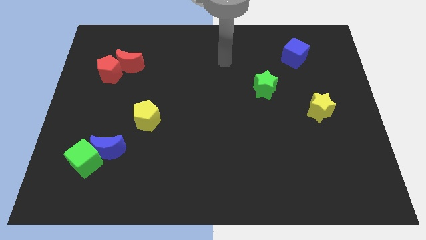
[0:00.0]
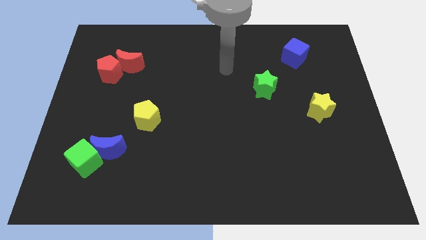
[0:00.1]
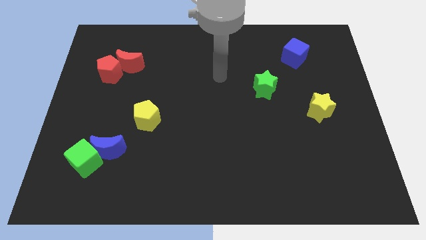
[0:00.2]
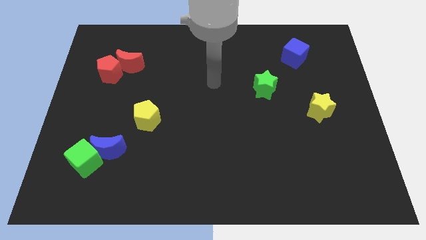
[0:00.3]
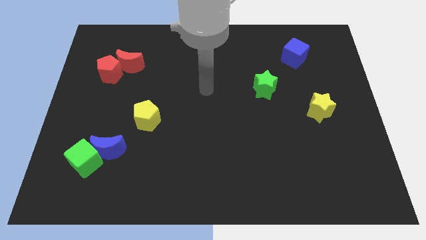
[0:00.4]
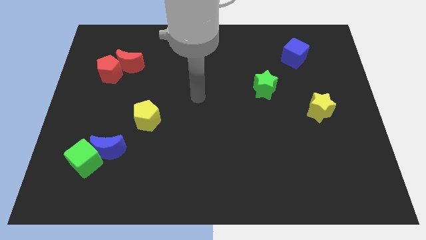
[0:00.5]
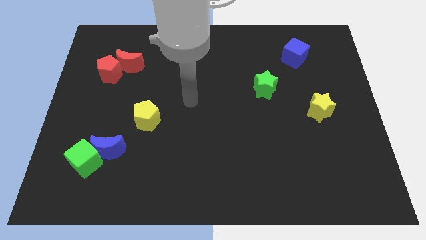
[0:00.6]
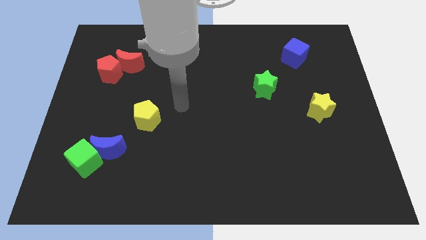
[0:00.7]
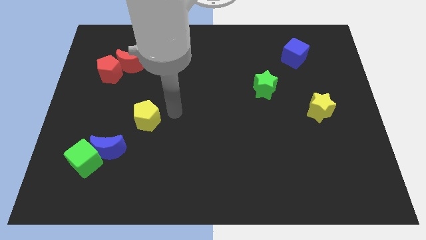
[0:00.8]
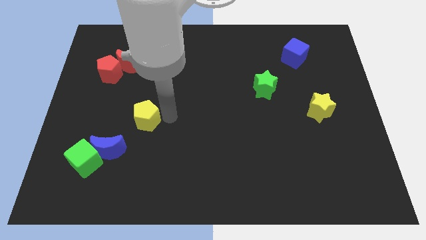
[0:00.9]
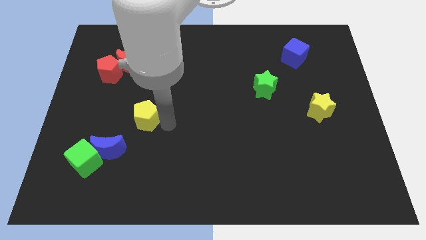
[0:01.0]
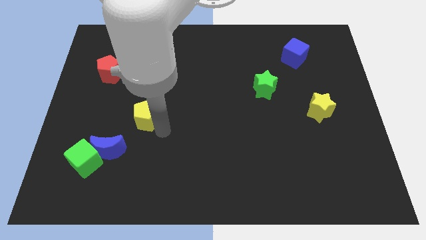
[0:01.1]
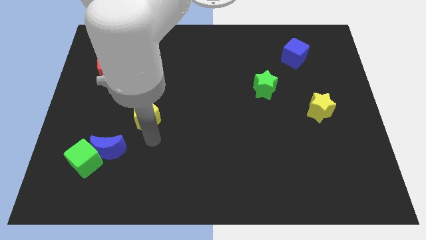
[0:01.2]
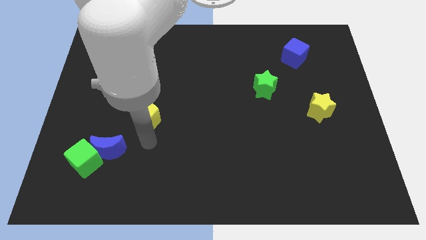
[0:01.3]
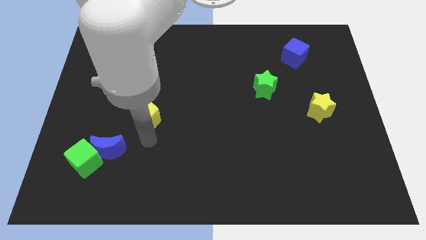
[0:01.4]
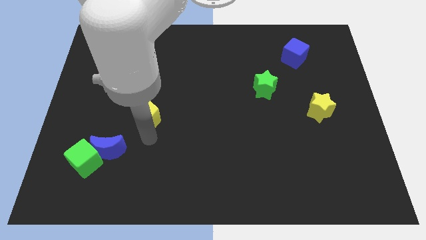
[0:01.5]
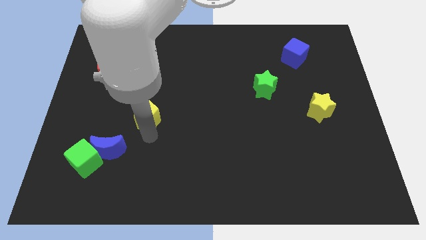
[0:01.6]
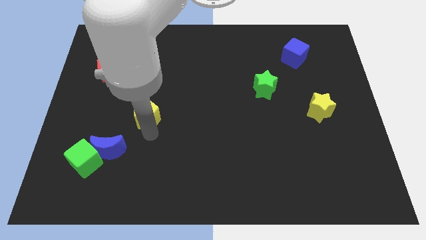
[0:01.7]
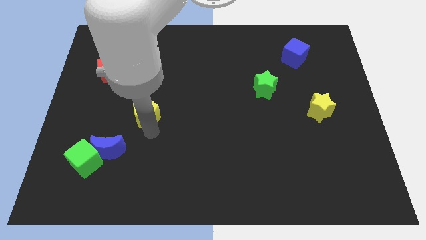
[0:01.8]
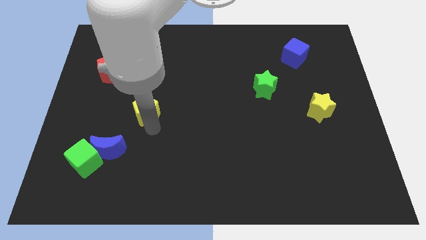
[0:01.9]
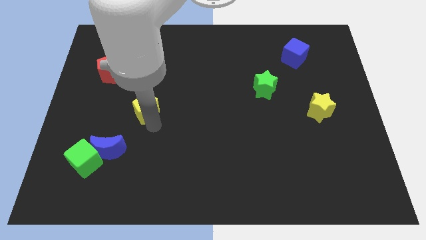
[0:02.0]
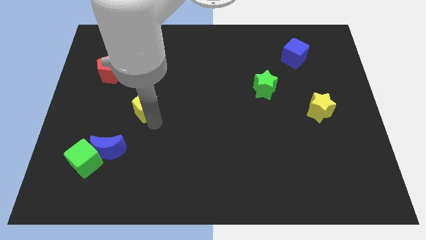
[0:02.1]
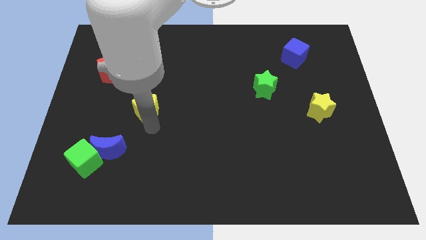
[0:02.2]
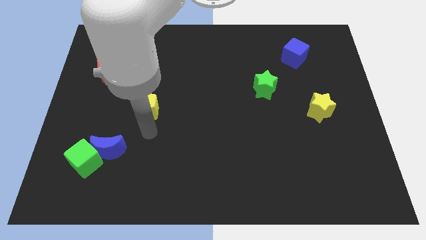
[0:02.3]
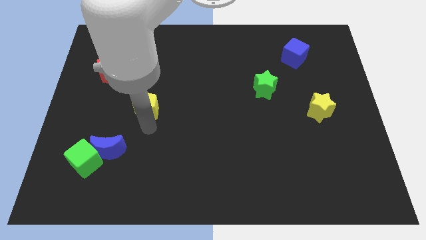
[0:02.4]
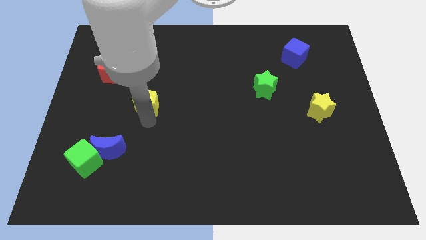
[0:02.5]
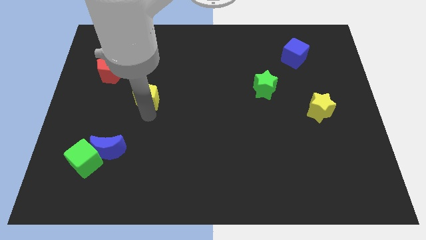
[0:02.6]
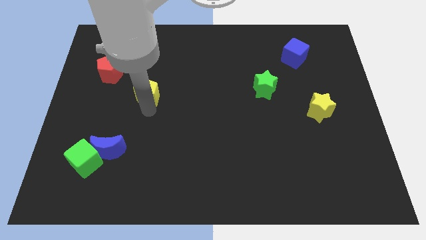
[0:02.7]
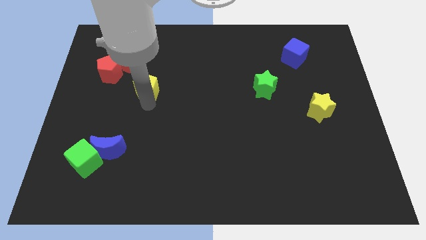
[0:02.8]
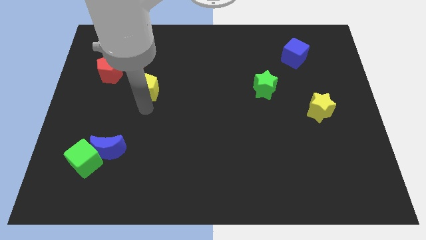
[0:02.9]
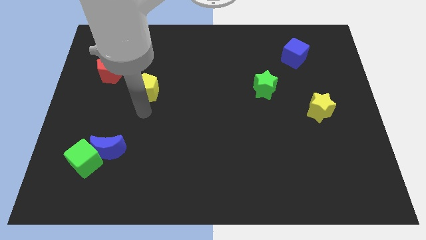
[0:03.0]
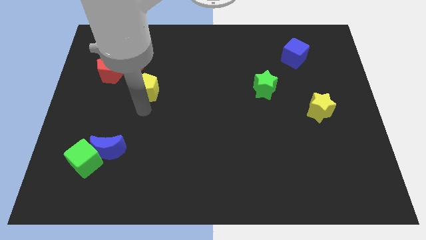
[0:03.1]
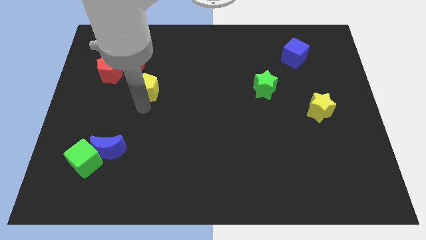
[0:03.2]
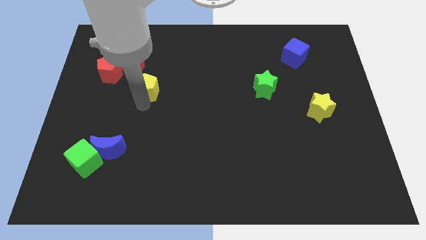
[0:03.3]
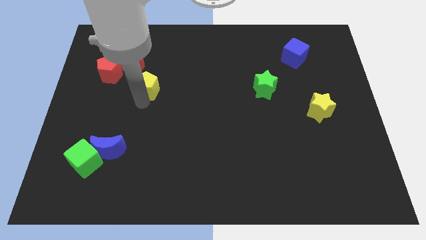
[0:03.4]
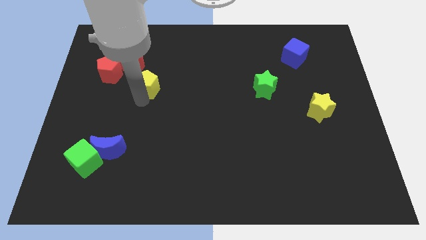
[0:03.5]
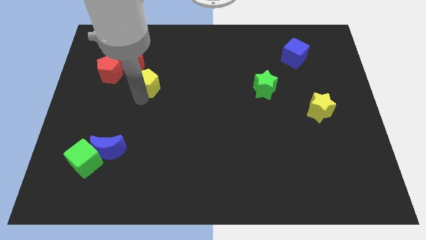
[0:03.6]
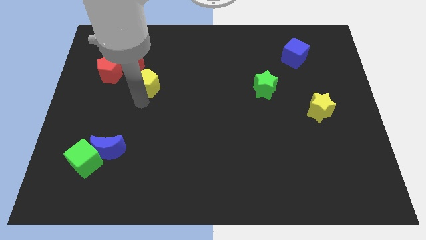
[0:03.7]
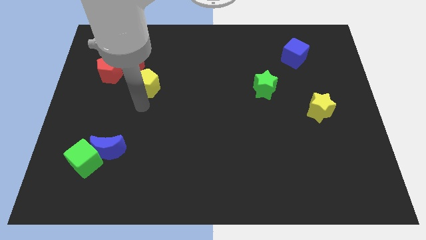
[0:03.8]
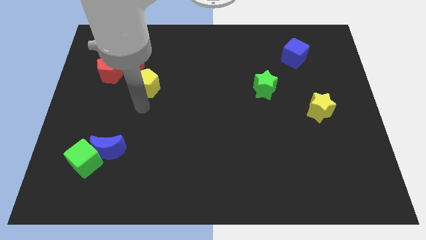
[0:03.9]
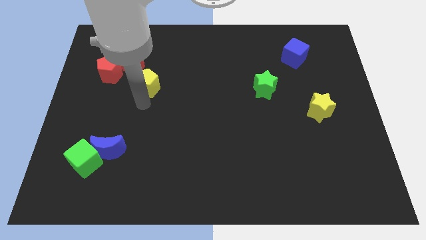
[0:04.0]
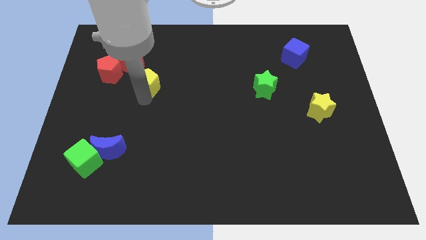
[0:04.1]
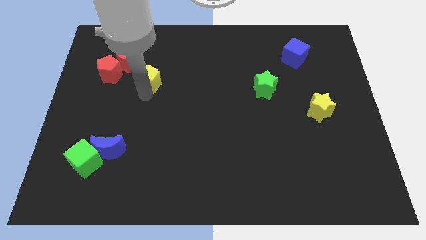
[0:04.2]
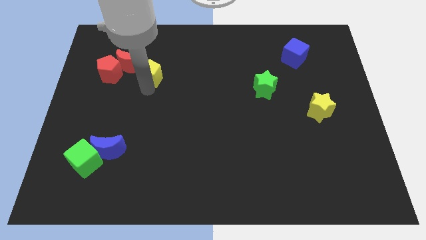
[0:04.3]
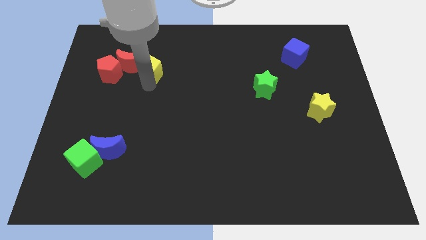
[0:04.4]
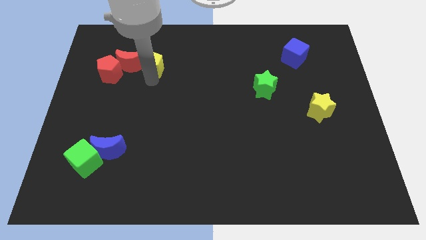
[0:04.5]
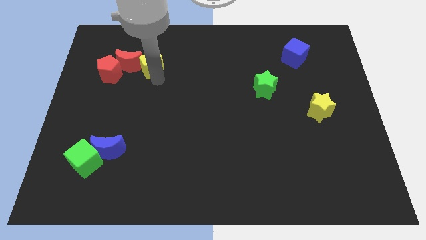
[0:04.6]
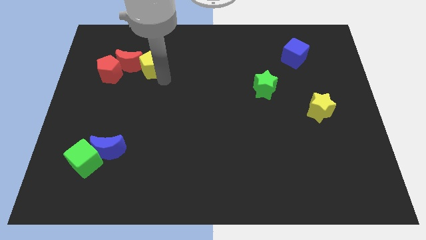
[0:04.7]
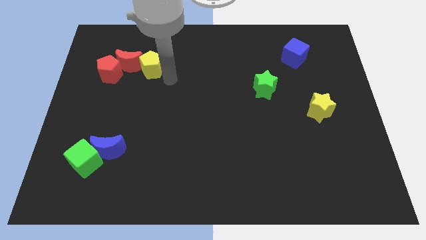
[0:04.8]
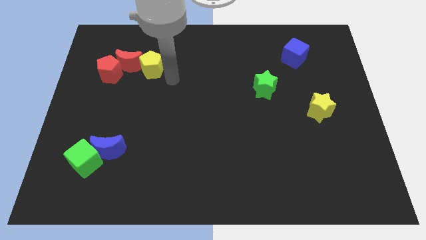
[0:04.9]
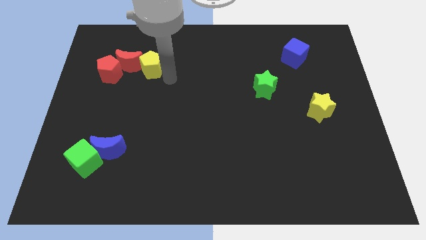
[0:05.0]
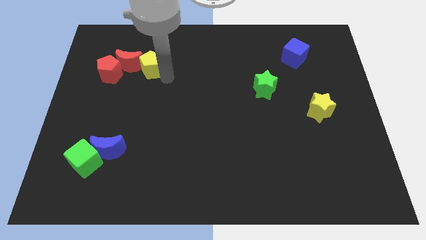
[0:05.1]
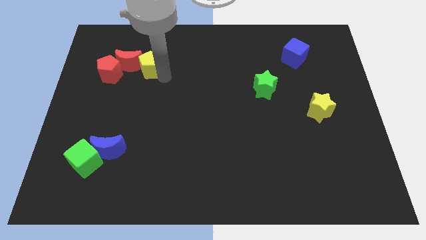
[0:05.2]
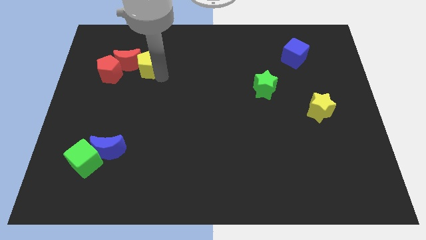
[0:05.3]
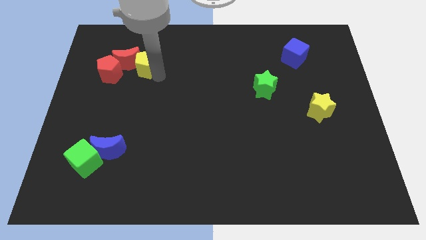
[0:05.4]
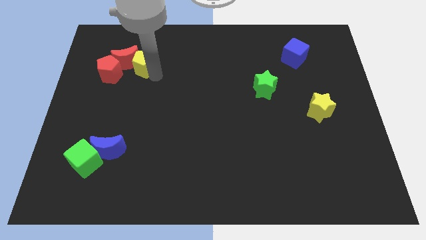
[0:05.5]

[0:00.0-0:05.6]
put the yellow pentagon diagonally up and to the right of the red pentagon
